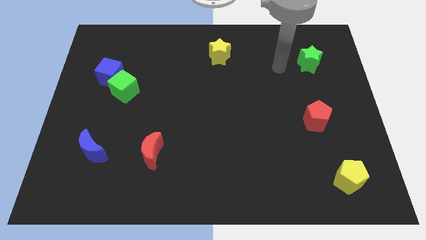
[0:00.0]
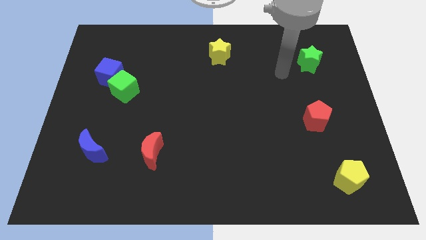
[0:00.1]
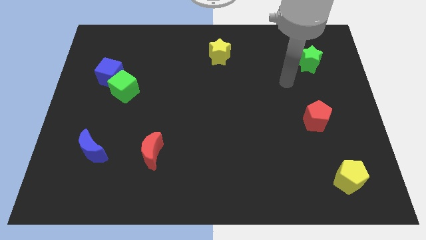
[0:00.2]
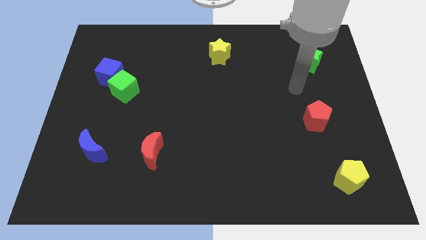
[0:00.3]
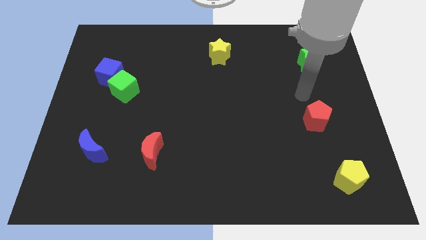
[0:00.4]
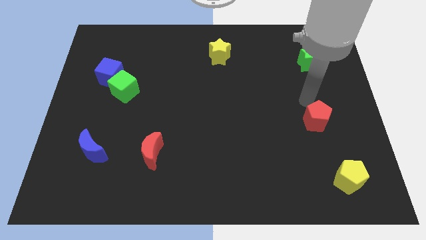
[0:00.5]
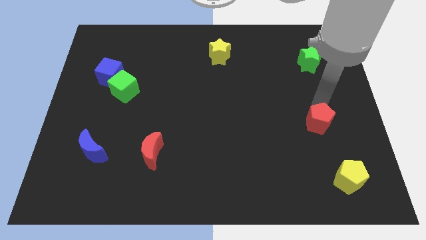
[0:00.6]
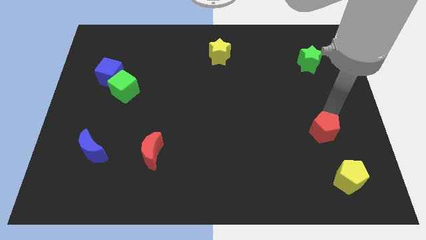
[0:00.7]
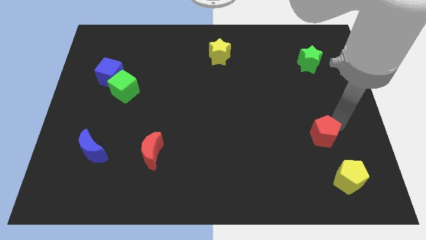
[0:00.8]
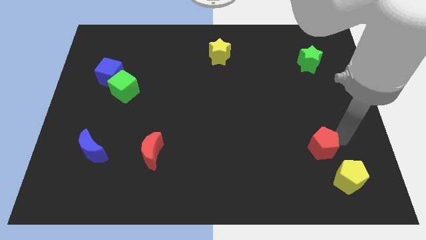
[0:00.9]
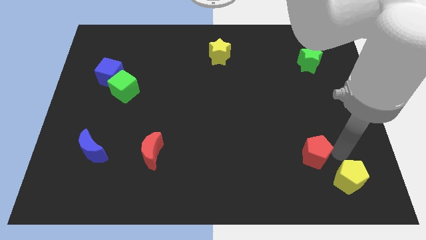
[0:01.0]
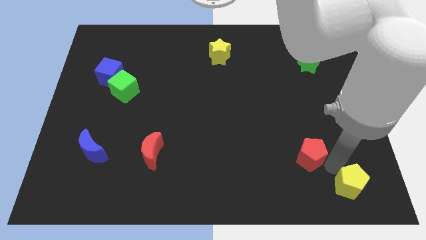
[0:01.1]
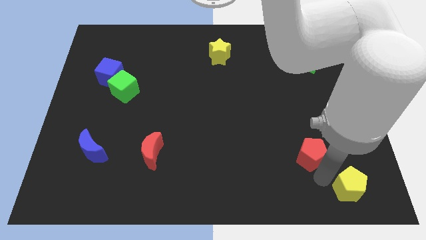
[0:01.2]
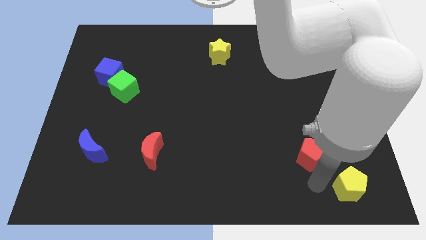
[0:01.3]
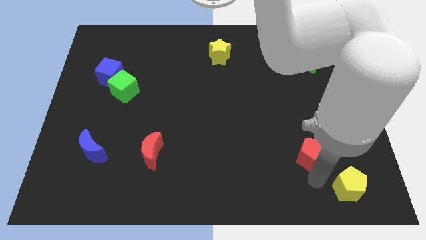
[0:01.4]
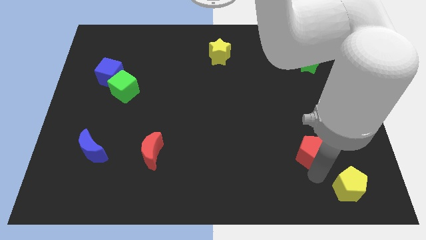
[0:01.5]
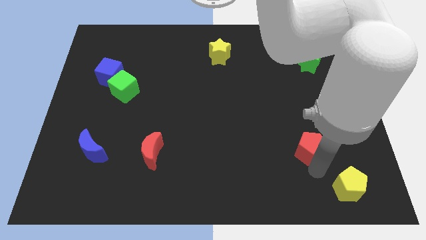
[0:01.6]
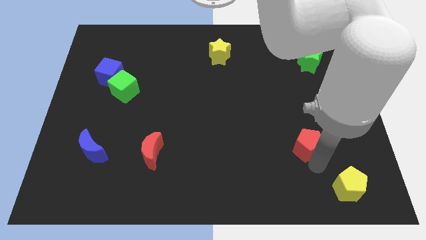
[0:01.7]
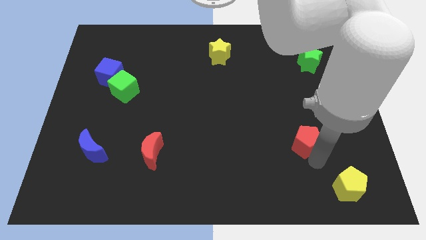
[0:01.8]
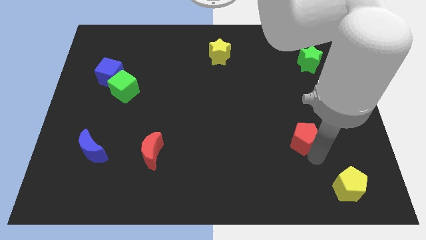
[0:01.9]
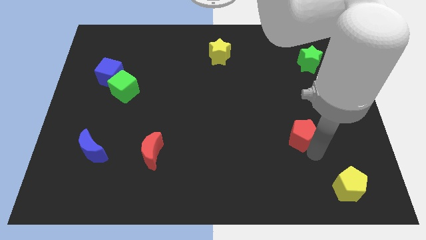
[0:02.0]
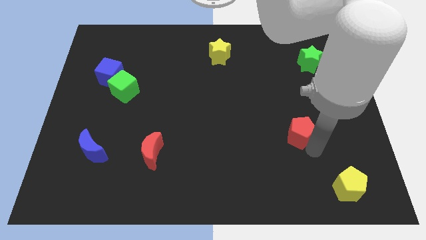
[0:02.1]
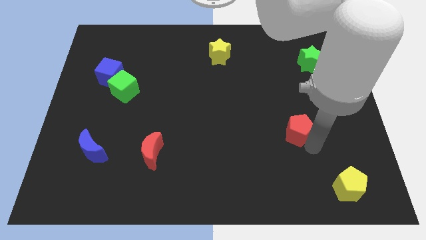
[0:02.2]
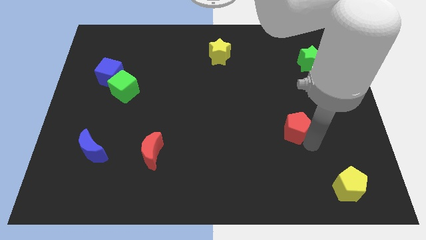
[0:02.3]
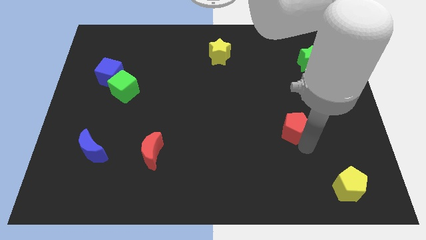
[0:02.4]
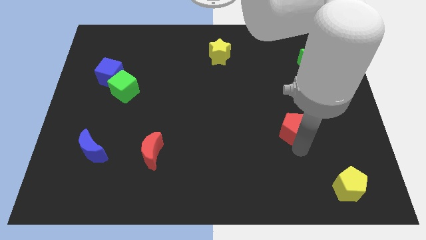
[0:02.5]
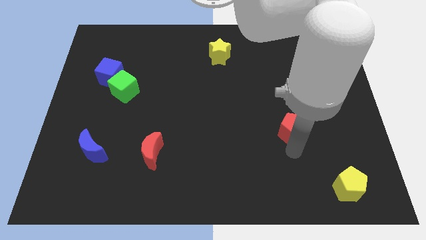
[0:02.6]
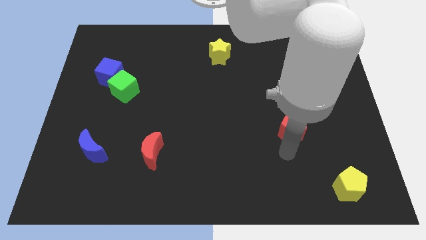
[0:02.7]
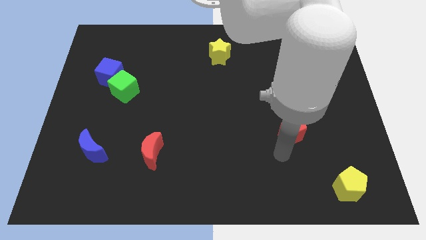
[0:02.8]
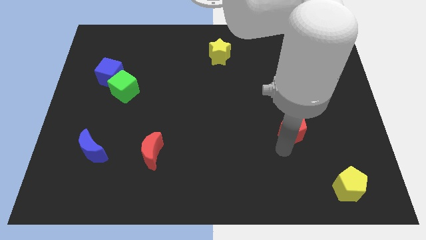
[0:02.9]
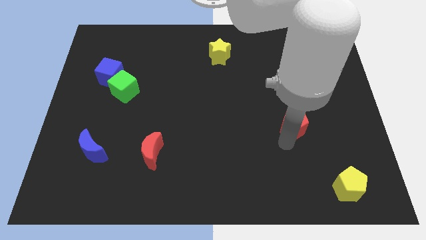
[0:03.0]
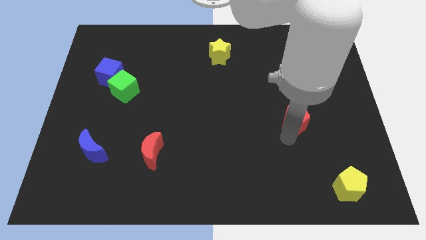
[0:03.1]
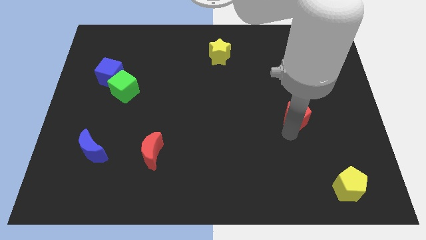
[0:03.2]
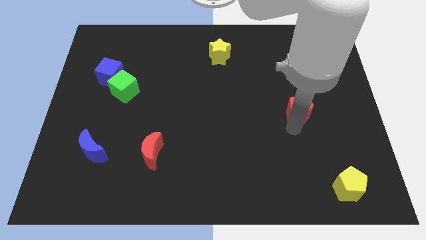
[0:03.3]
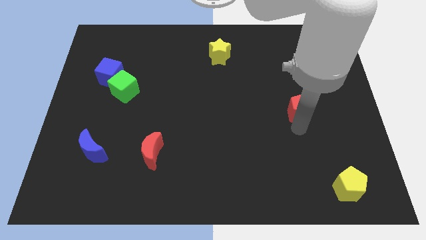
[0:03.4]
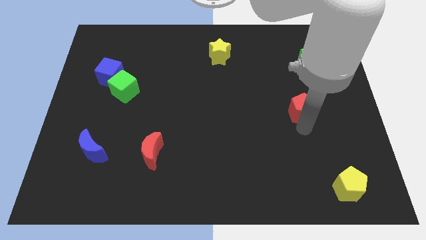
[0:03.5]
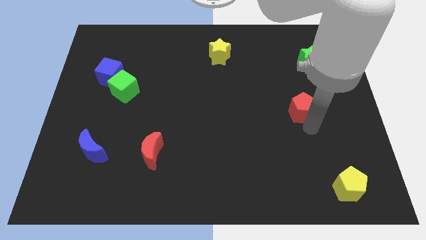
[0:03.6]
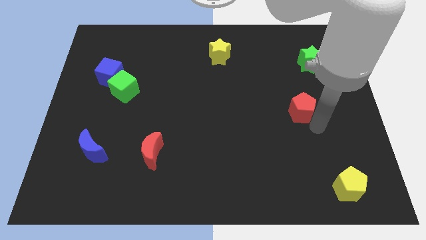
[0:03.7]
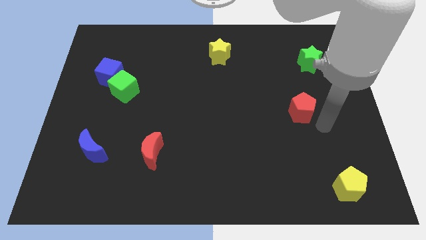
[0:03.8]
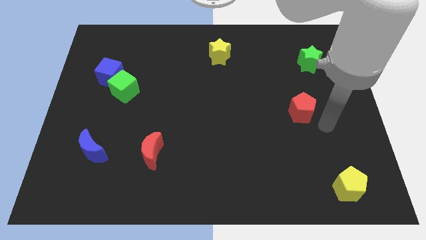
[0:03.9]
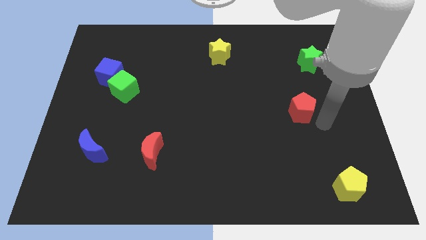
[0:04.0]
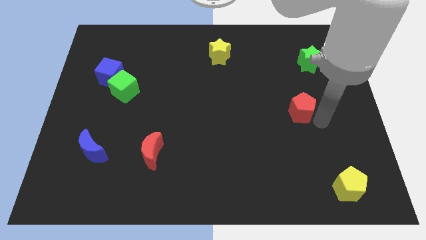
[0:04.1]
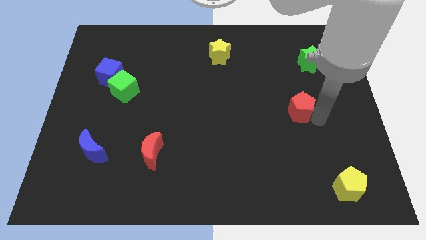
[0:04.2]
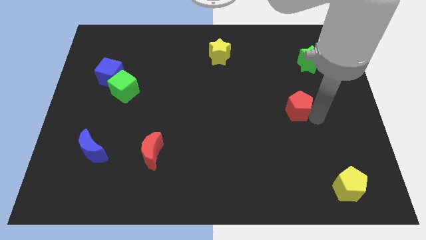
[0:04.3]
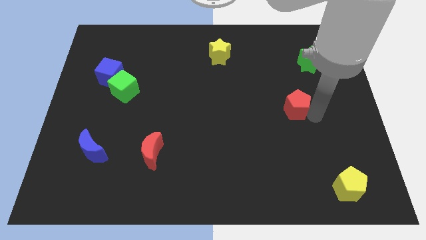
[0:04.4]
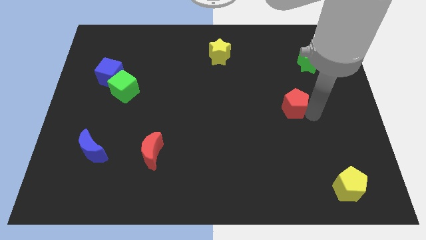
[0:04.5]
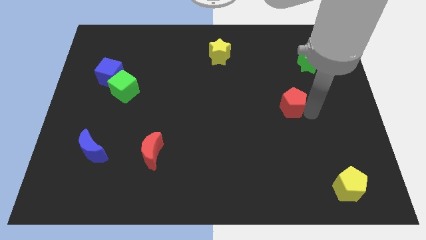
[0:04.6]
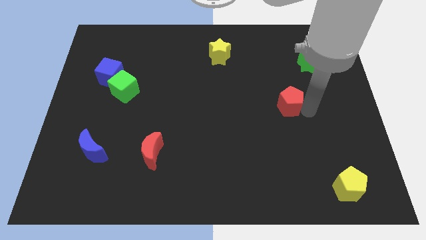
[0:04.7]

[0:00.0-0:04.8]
slide the red pentagon upwards and left a little

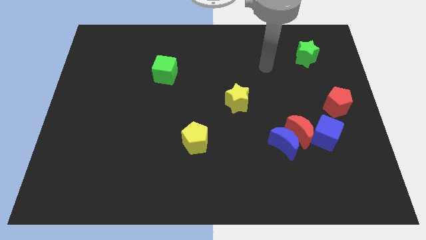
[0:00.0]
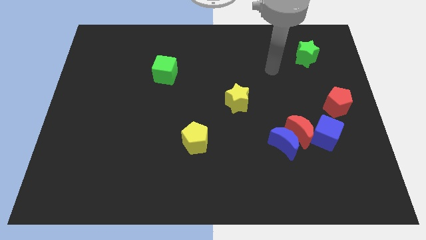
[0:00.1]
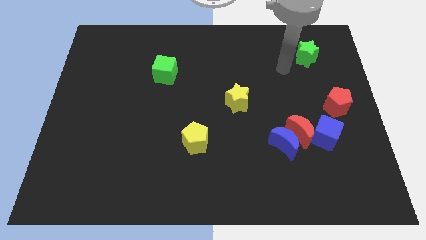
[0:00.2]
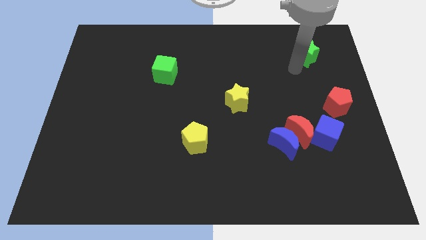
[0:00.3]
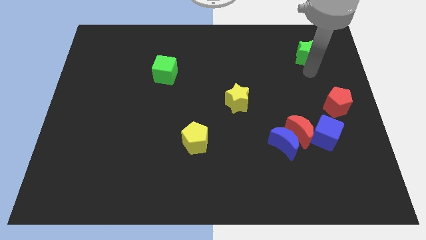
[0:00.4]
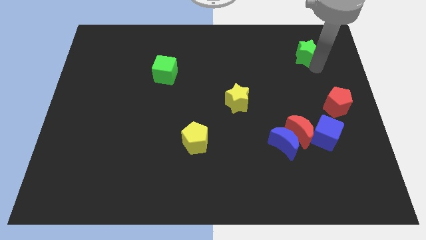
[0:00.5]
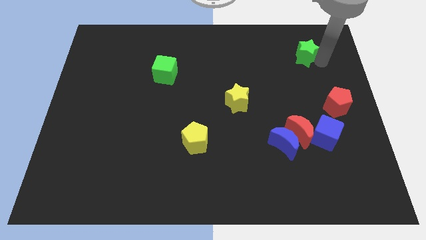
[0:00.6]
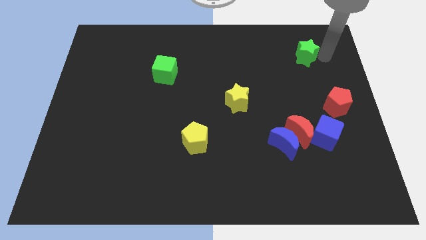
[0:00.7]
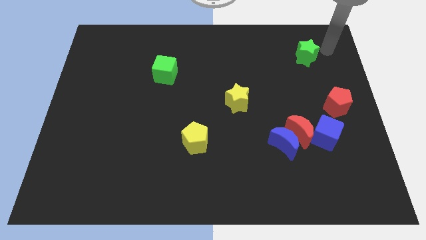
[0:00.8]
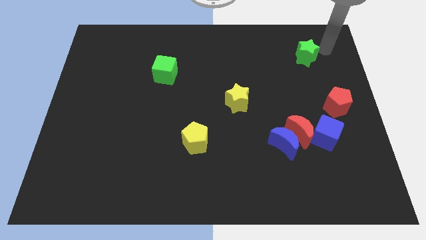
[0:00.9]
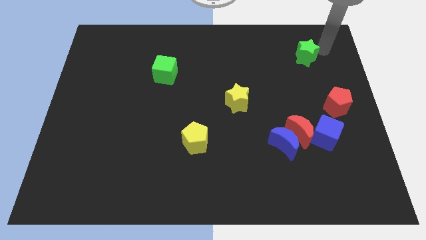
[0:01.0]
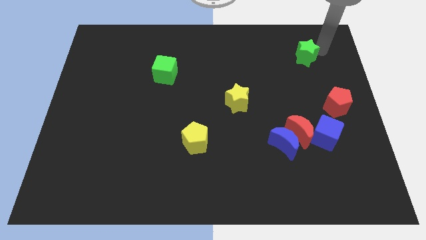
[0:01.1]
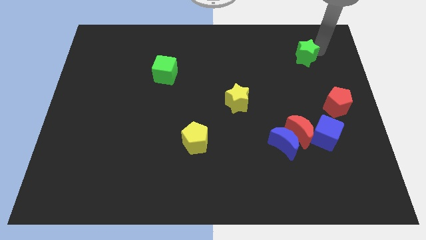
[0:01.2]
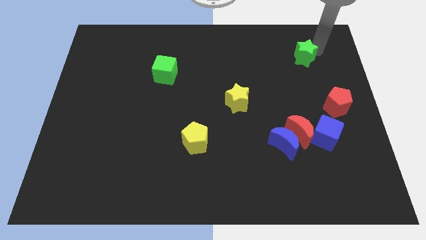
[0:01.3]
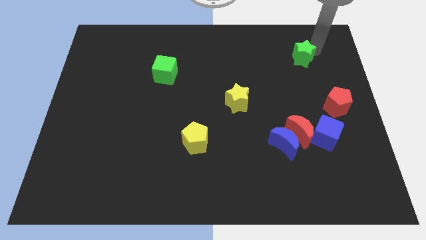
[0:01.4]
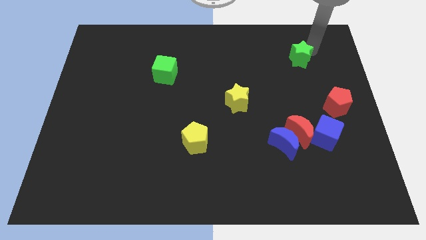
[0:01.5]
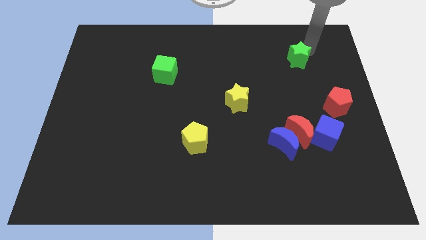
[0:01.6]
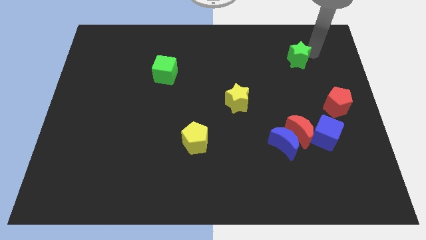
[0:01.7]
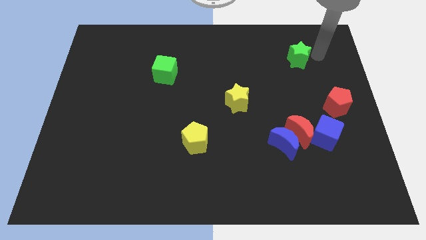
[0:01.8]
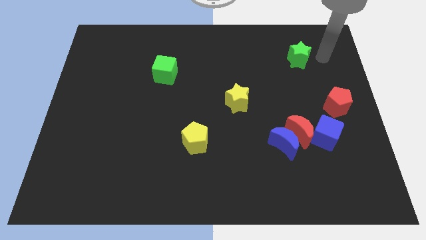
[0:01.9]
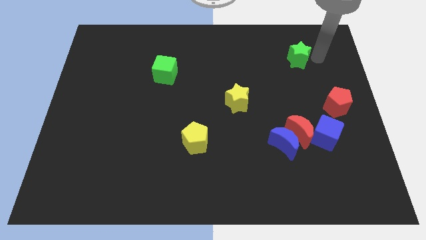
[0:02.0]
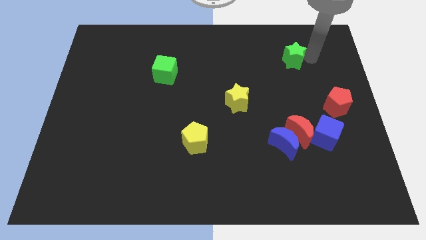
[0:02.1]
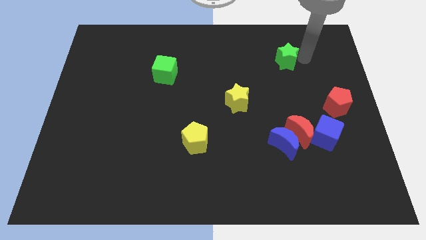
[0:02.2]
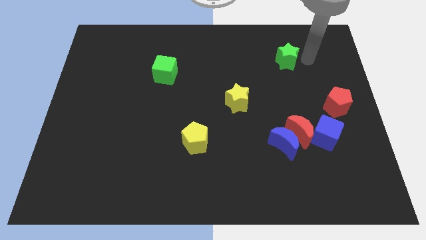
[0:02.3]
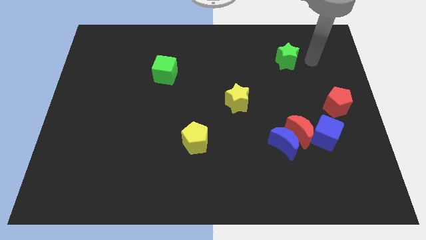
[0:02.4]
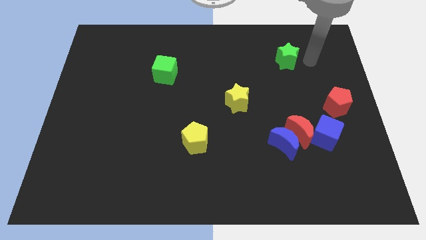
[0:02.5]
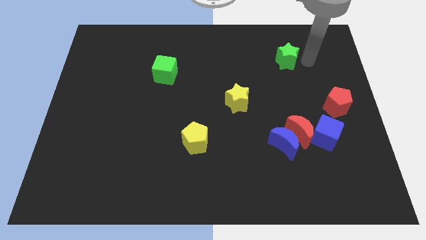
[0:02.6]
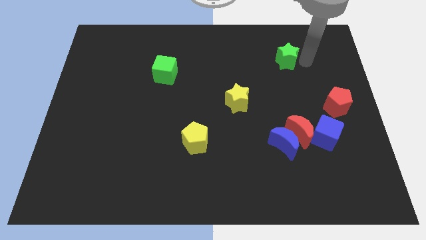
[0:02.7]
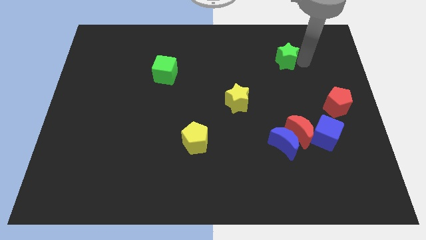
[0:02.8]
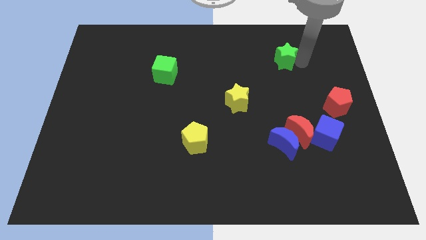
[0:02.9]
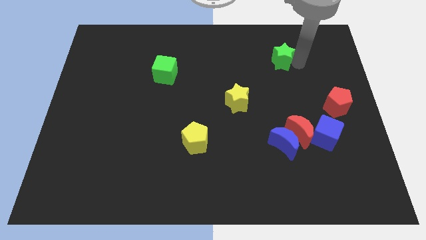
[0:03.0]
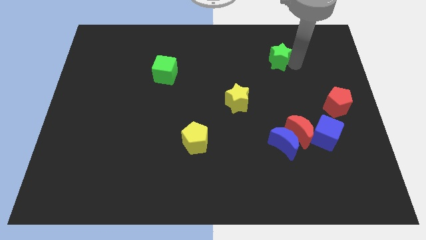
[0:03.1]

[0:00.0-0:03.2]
move the green star a bit left

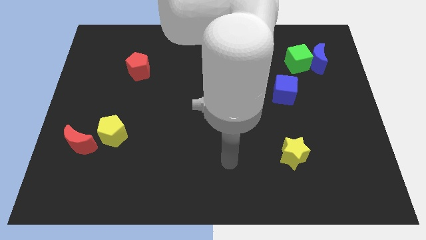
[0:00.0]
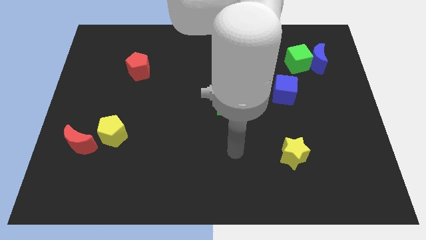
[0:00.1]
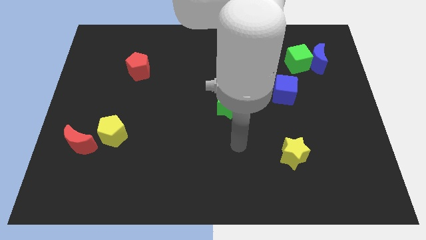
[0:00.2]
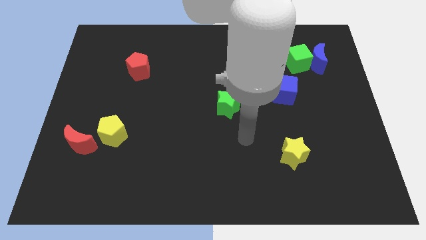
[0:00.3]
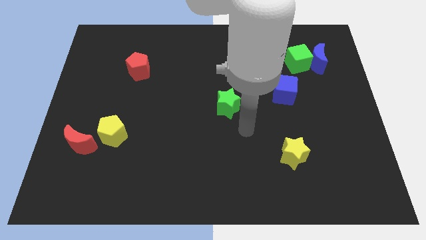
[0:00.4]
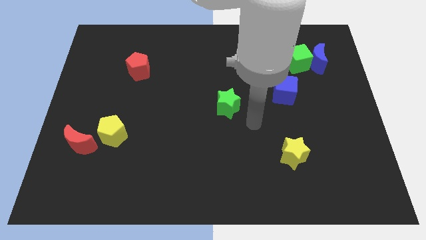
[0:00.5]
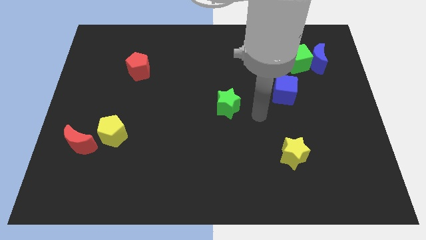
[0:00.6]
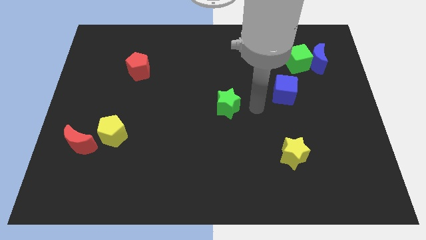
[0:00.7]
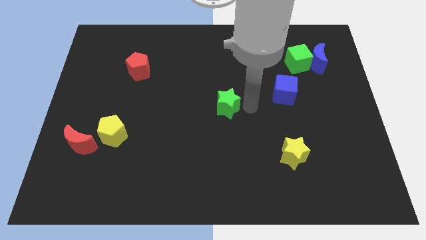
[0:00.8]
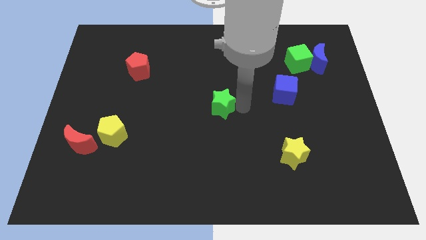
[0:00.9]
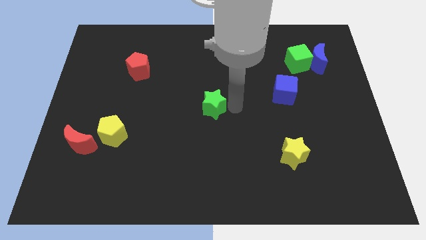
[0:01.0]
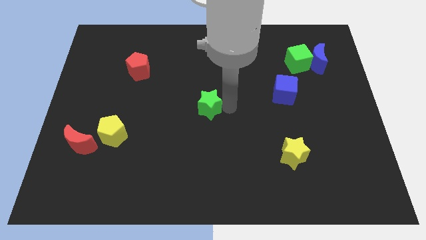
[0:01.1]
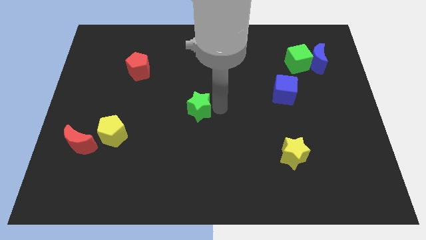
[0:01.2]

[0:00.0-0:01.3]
slightly move the green star left
